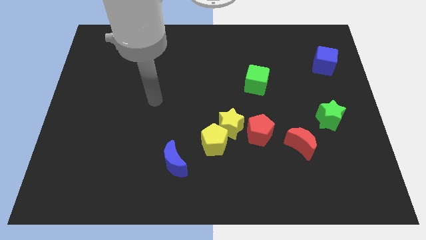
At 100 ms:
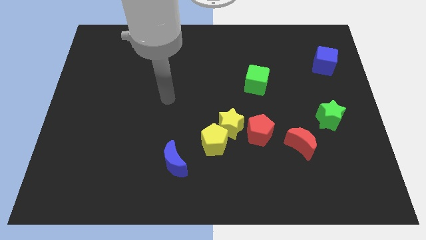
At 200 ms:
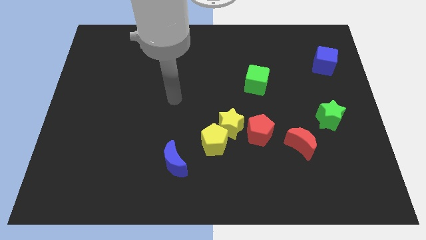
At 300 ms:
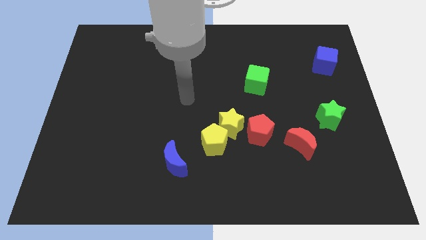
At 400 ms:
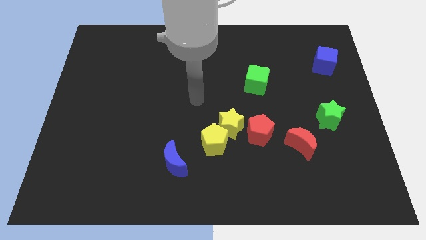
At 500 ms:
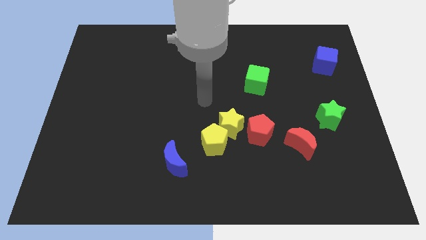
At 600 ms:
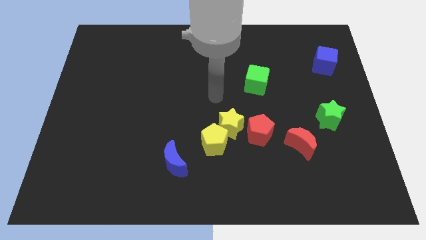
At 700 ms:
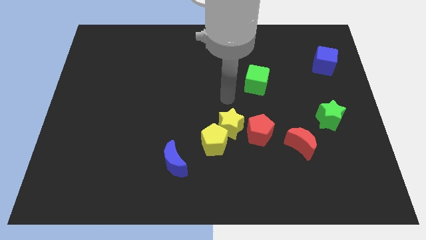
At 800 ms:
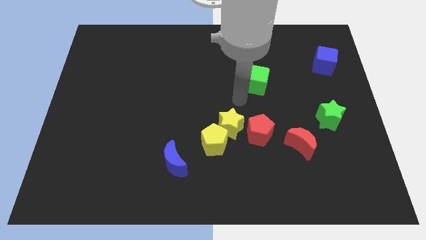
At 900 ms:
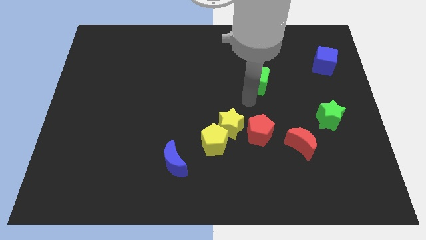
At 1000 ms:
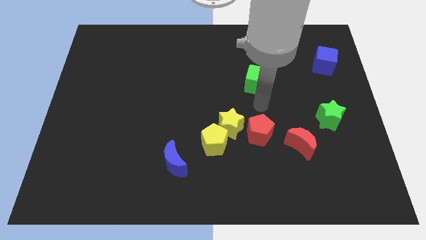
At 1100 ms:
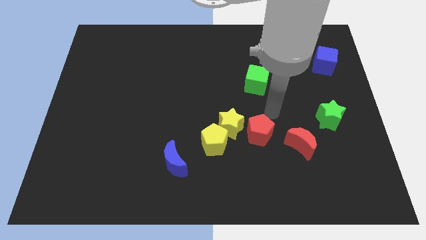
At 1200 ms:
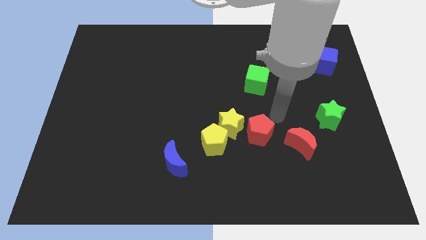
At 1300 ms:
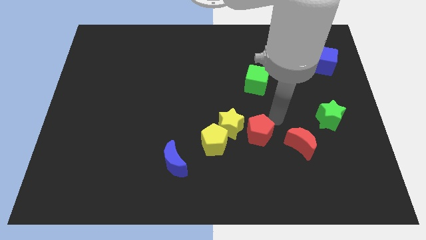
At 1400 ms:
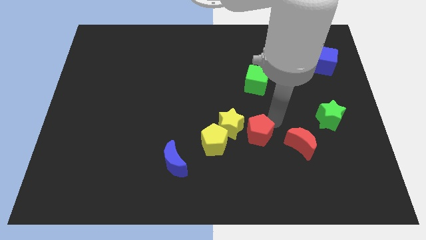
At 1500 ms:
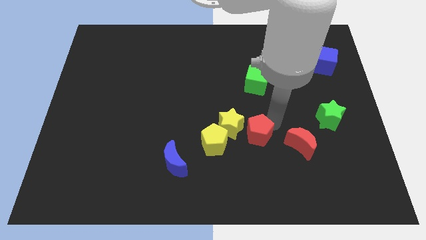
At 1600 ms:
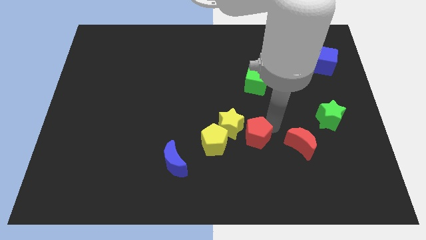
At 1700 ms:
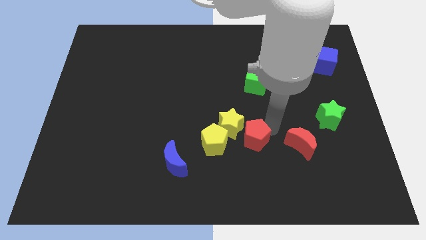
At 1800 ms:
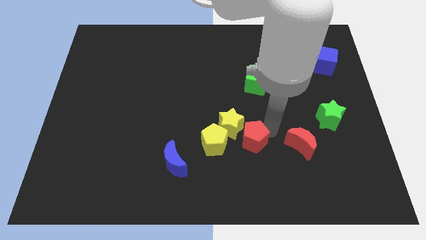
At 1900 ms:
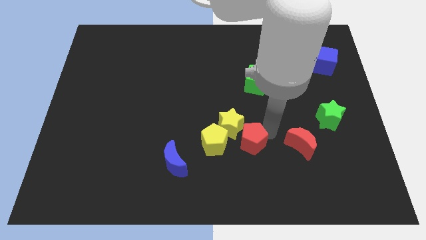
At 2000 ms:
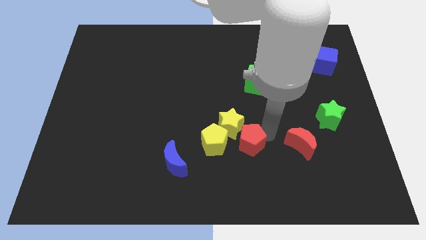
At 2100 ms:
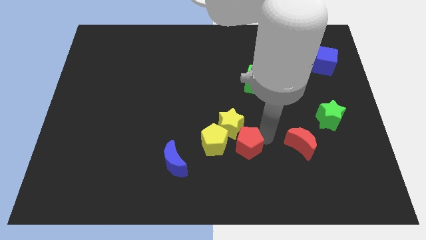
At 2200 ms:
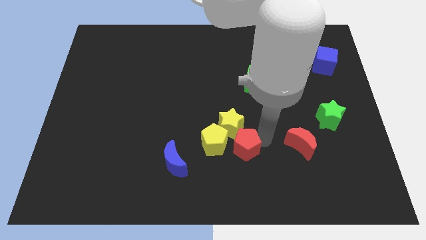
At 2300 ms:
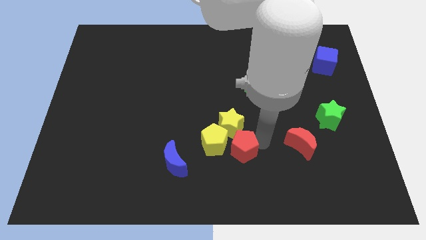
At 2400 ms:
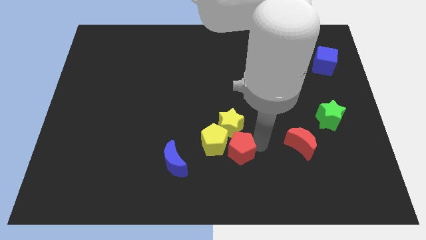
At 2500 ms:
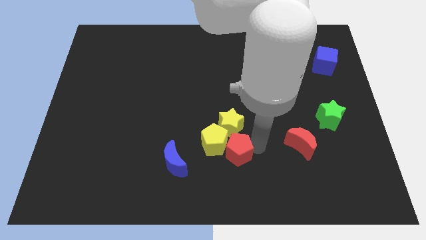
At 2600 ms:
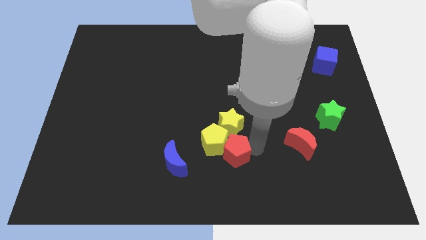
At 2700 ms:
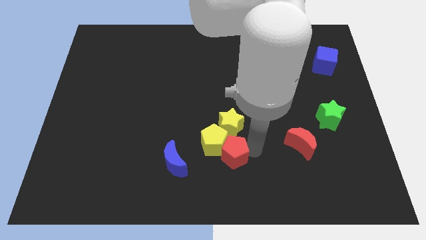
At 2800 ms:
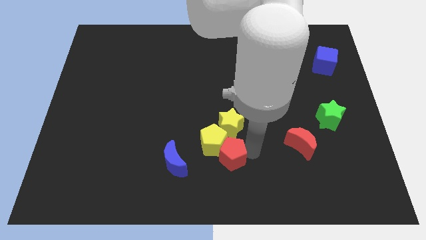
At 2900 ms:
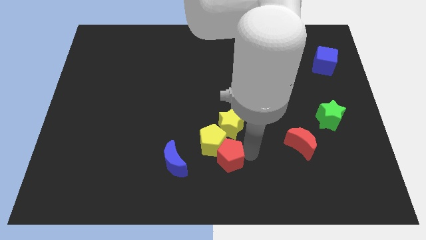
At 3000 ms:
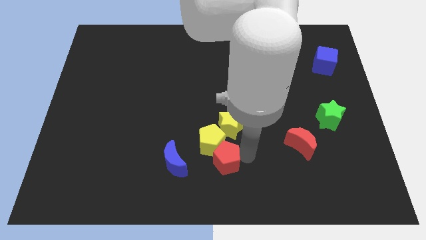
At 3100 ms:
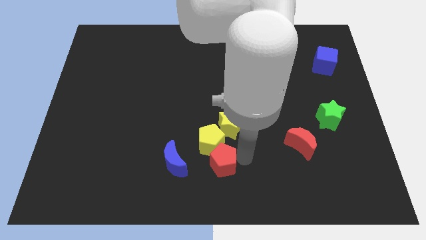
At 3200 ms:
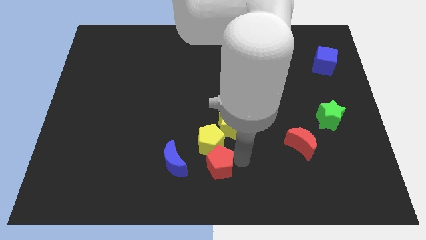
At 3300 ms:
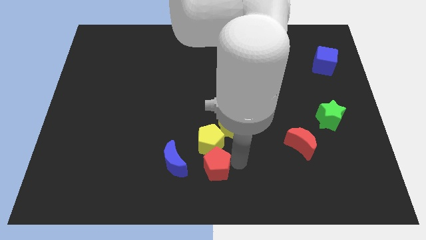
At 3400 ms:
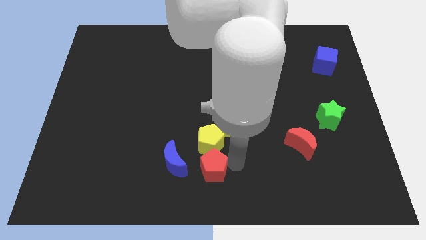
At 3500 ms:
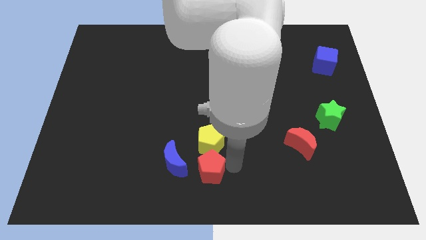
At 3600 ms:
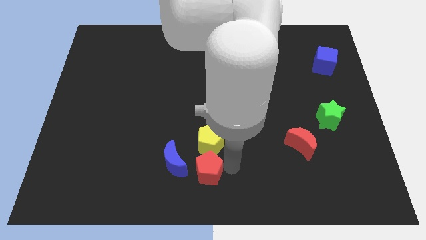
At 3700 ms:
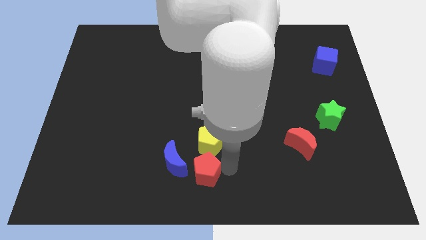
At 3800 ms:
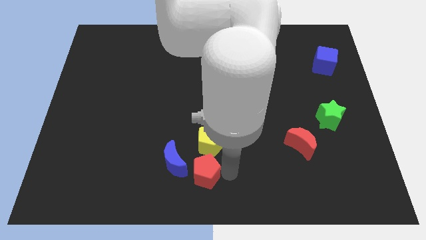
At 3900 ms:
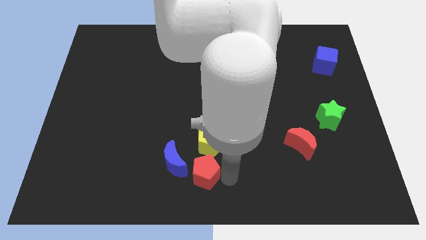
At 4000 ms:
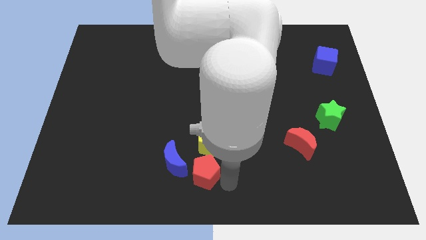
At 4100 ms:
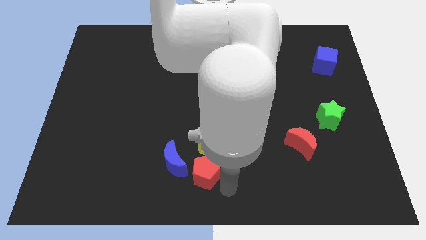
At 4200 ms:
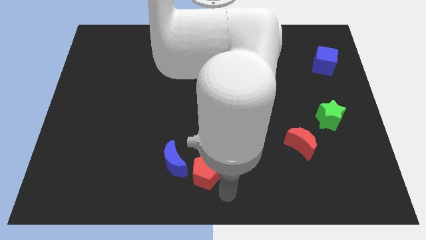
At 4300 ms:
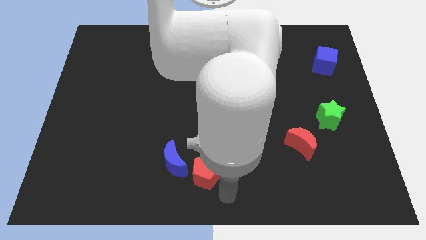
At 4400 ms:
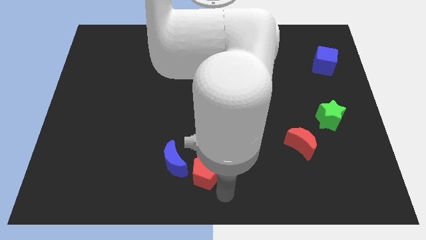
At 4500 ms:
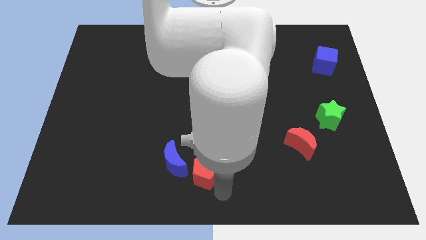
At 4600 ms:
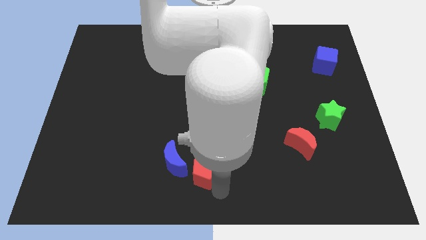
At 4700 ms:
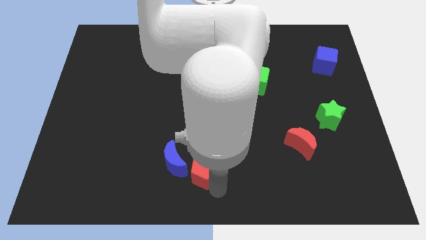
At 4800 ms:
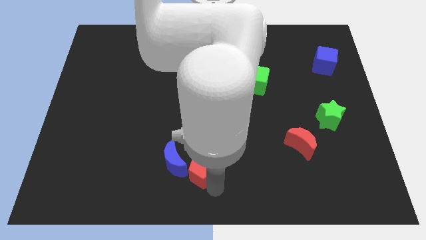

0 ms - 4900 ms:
put the red pentagon towards the blue moon

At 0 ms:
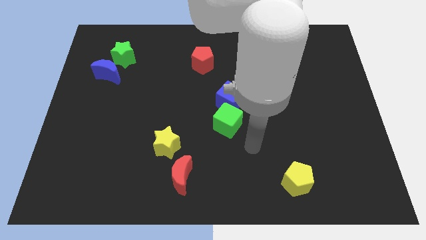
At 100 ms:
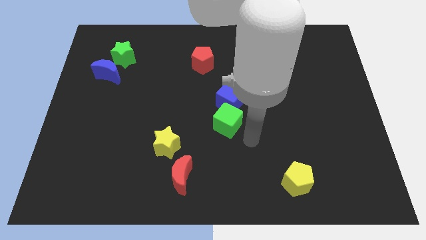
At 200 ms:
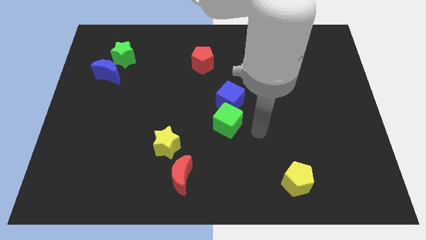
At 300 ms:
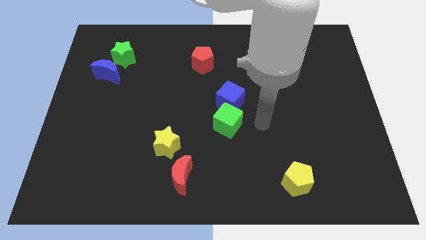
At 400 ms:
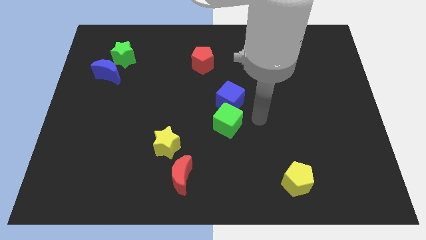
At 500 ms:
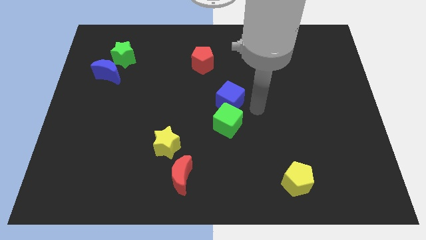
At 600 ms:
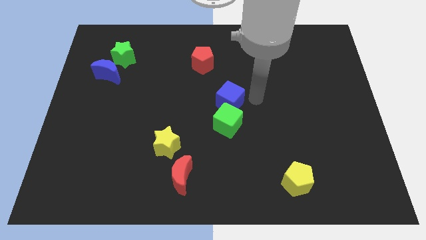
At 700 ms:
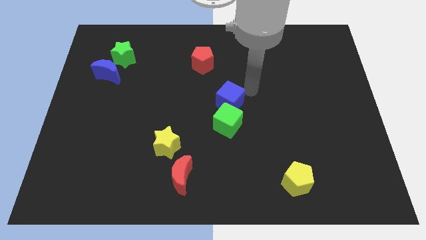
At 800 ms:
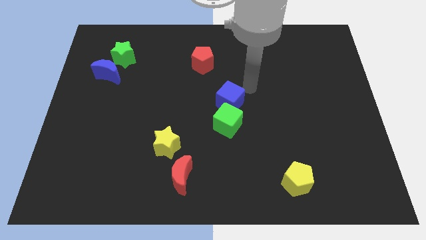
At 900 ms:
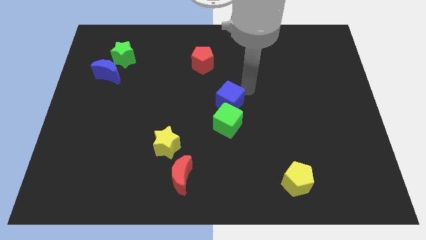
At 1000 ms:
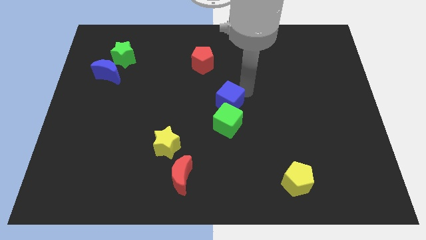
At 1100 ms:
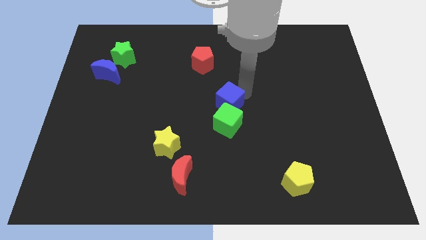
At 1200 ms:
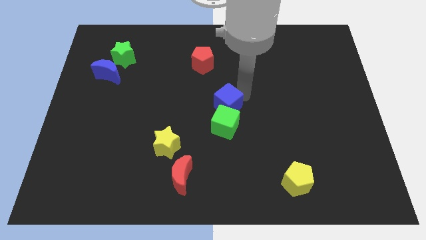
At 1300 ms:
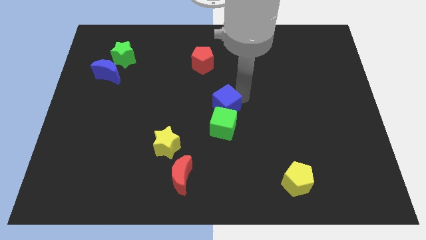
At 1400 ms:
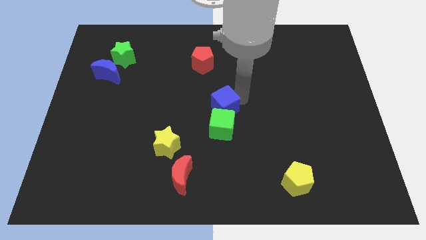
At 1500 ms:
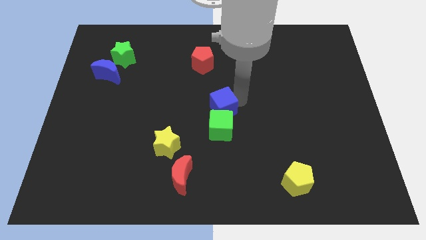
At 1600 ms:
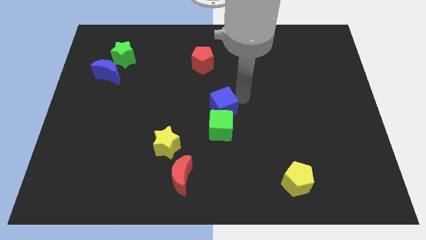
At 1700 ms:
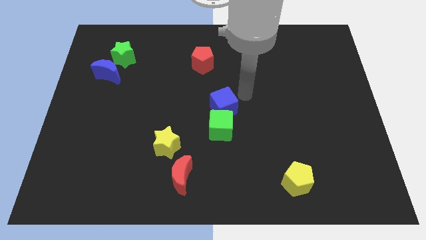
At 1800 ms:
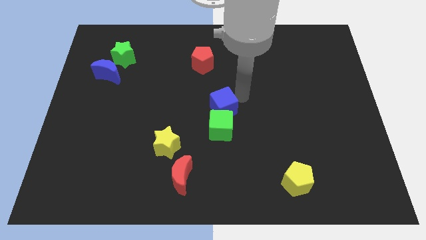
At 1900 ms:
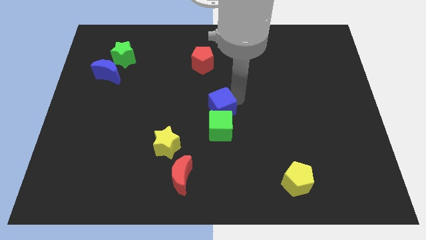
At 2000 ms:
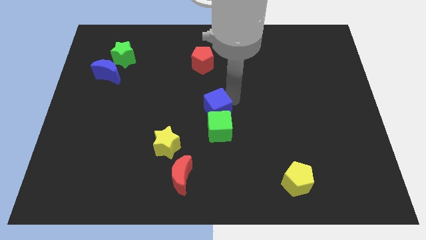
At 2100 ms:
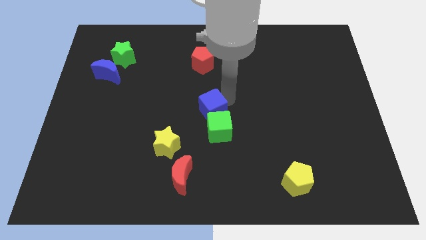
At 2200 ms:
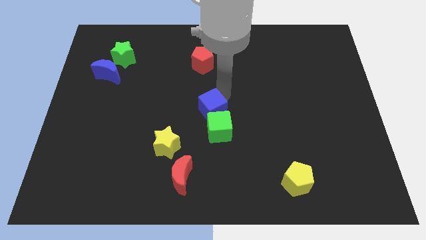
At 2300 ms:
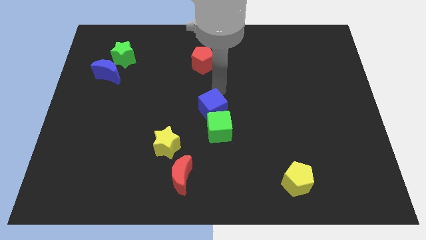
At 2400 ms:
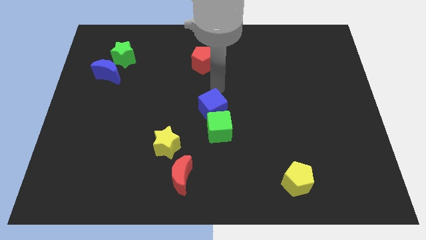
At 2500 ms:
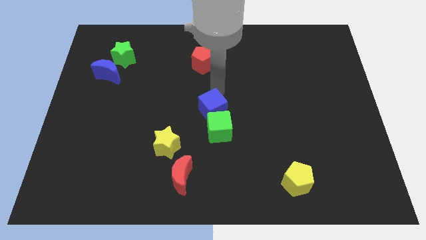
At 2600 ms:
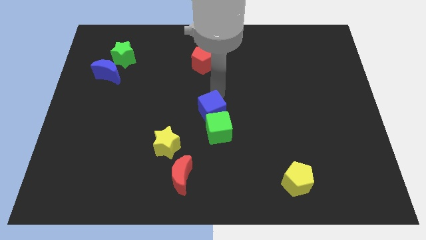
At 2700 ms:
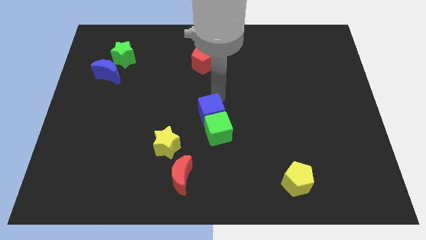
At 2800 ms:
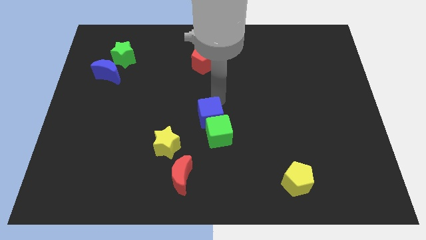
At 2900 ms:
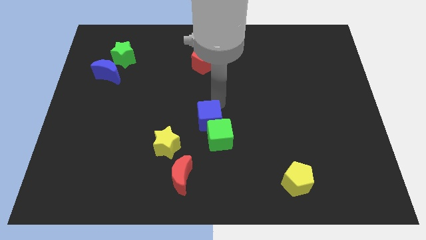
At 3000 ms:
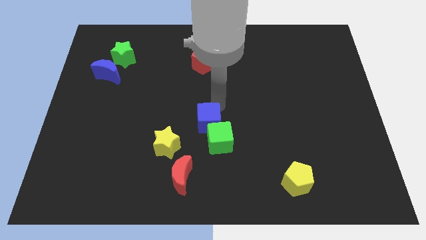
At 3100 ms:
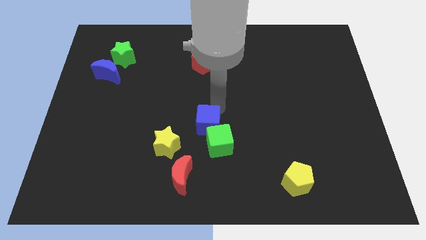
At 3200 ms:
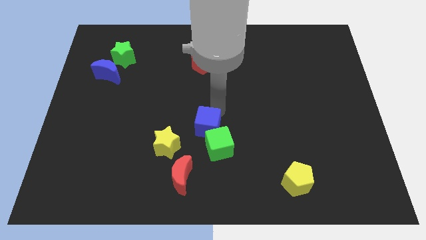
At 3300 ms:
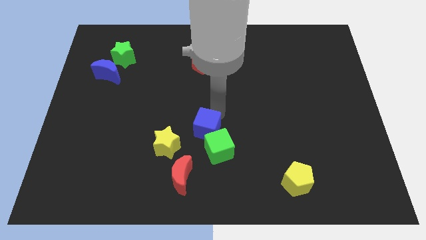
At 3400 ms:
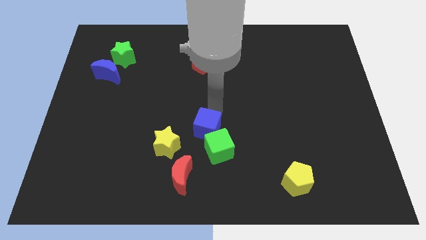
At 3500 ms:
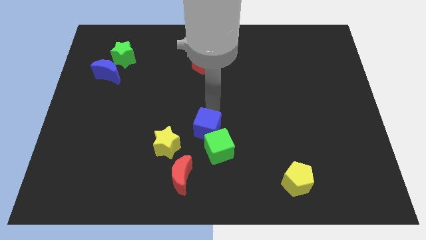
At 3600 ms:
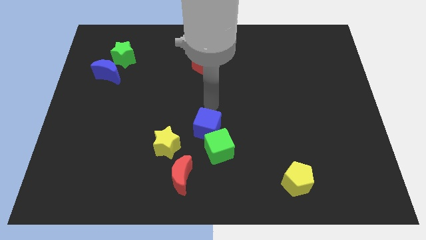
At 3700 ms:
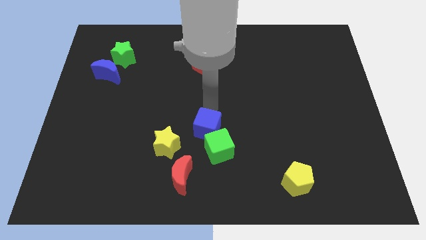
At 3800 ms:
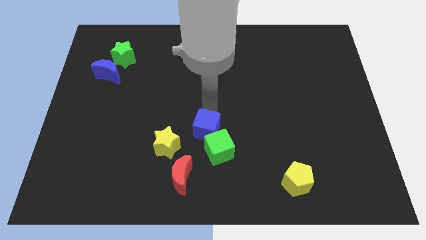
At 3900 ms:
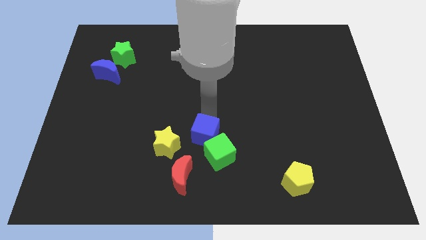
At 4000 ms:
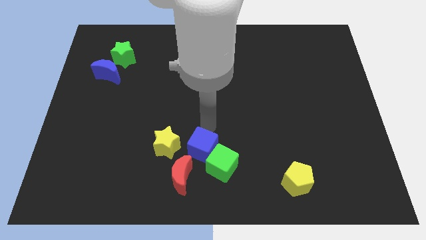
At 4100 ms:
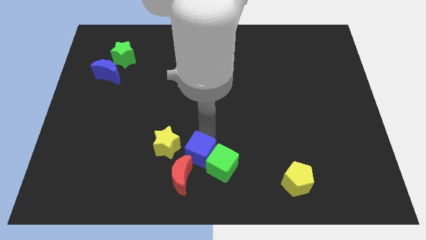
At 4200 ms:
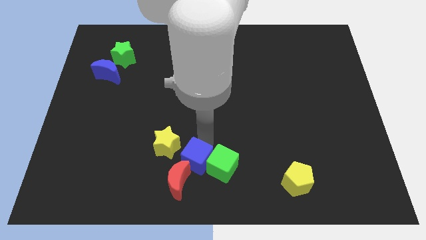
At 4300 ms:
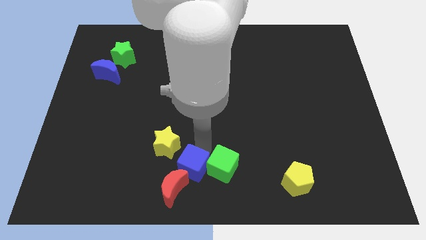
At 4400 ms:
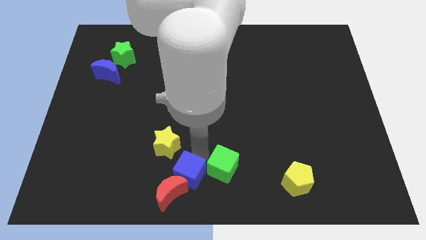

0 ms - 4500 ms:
push the blue cube next to the red moon
